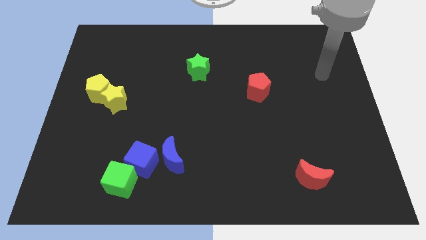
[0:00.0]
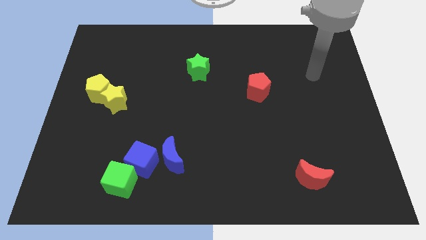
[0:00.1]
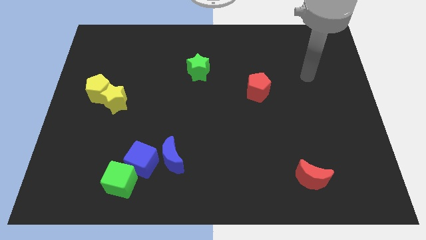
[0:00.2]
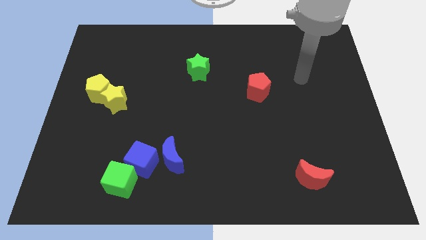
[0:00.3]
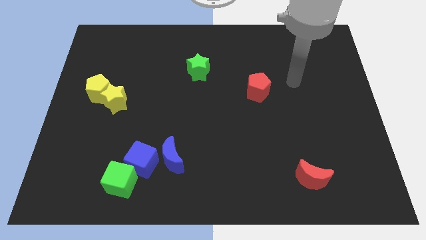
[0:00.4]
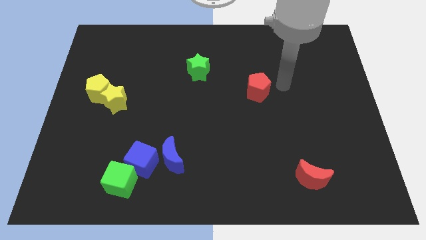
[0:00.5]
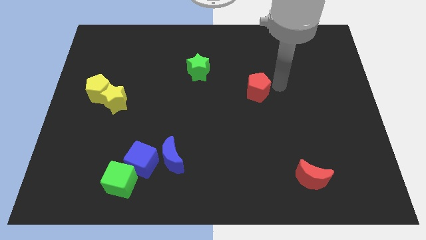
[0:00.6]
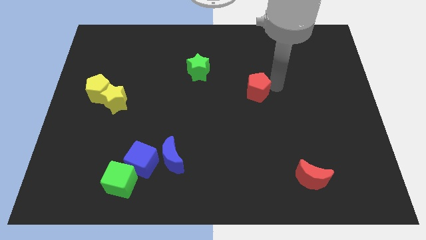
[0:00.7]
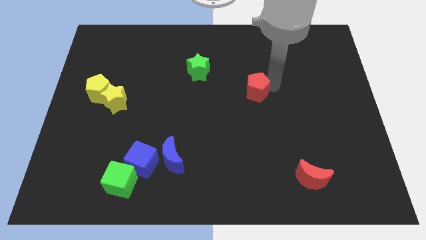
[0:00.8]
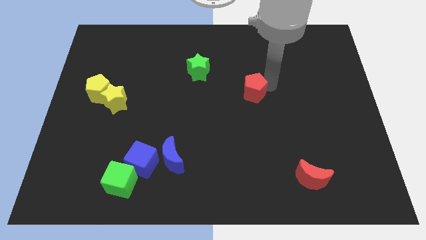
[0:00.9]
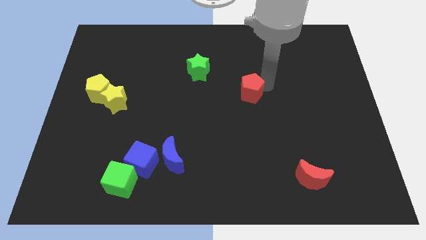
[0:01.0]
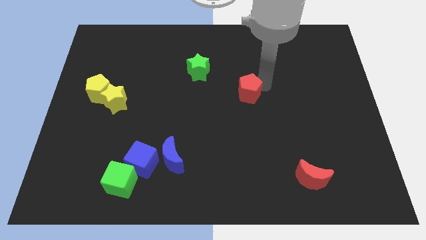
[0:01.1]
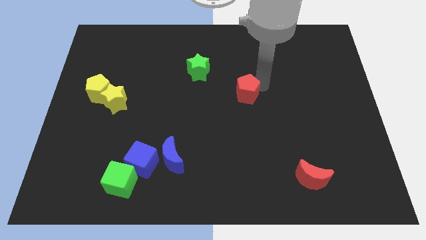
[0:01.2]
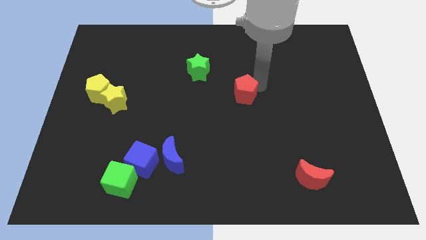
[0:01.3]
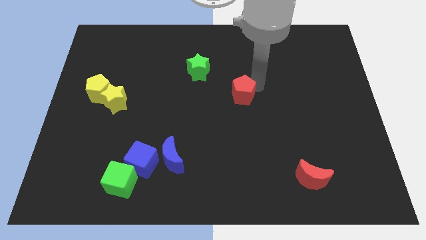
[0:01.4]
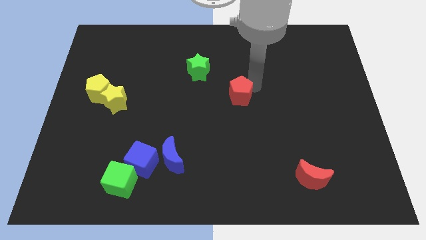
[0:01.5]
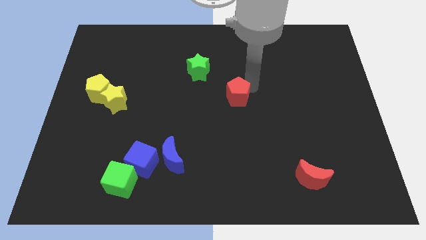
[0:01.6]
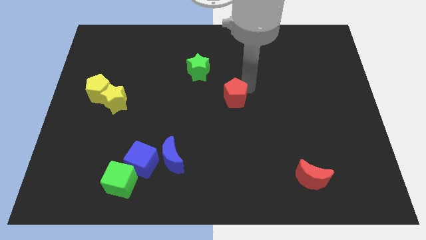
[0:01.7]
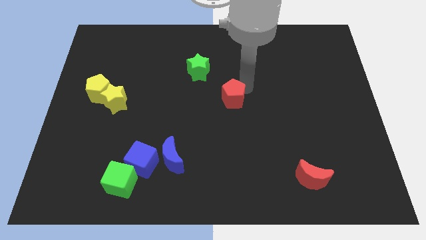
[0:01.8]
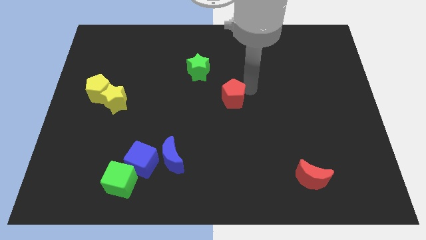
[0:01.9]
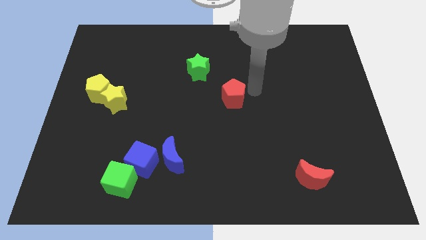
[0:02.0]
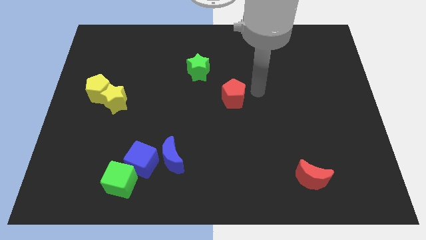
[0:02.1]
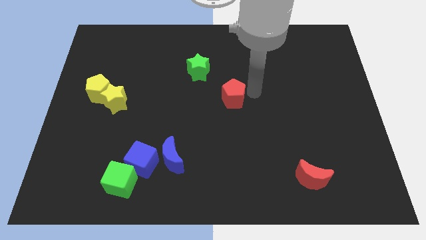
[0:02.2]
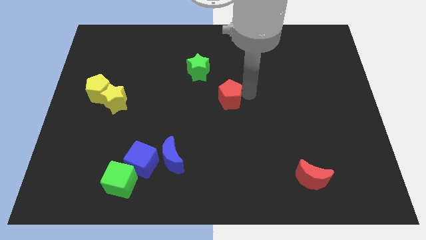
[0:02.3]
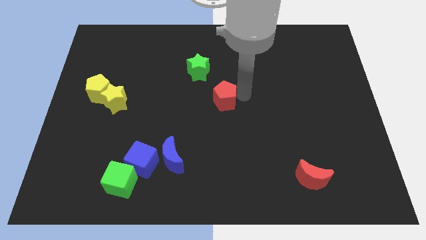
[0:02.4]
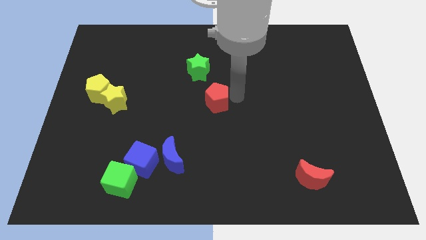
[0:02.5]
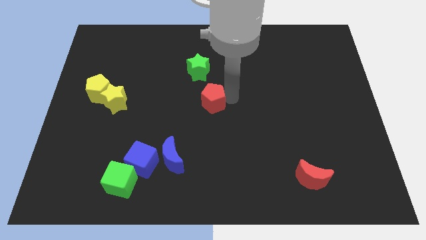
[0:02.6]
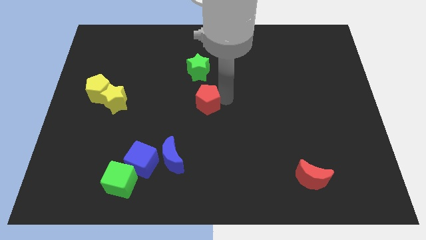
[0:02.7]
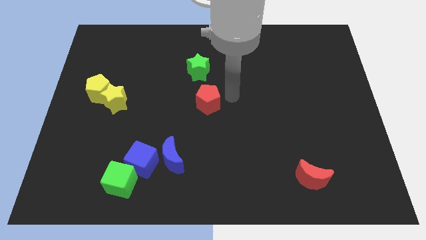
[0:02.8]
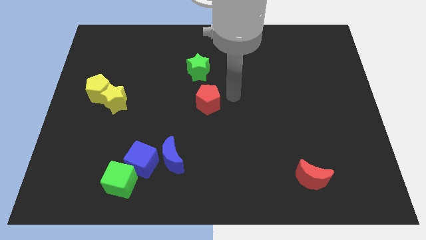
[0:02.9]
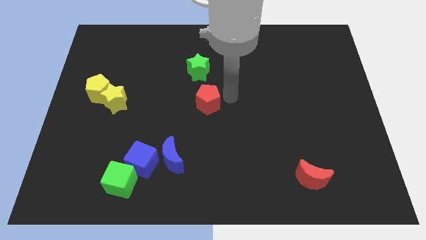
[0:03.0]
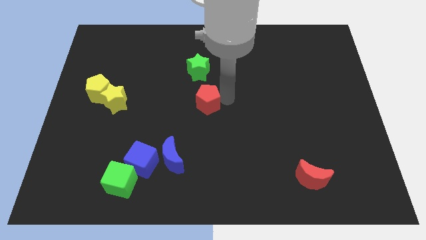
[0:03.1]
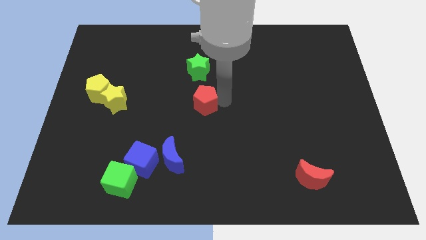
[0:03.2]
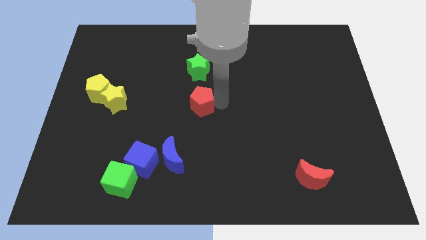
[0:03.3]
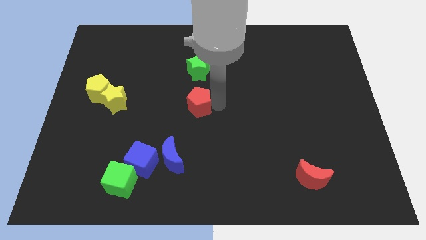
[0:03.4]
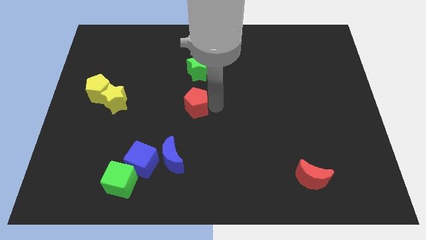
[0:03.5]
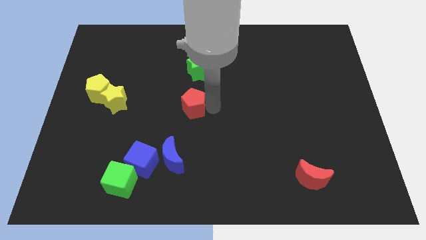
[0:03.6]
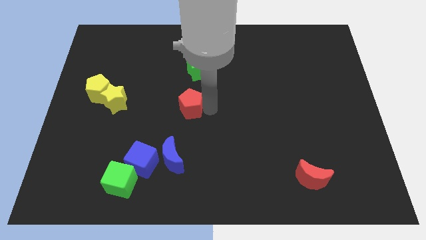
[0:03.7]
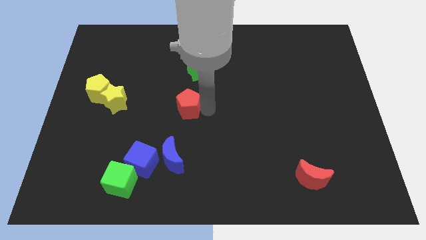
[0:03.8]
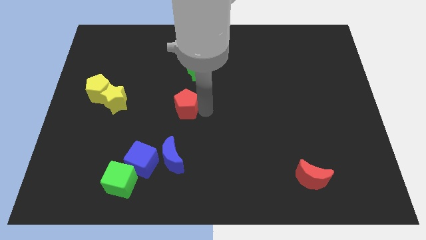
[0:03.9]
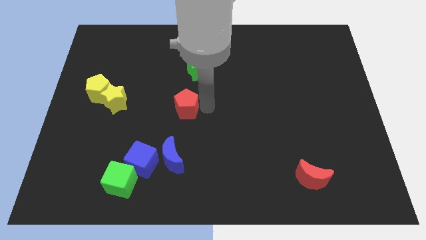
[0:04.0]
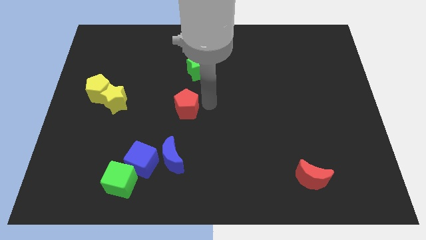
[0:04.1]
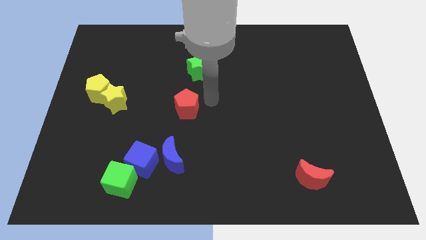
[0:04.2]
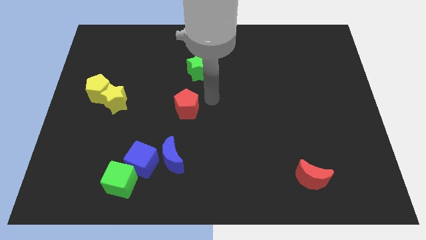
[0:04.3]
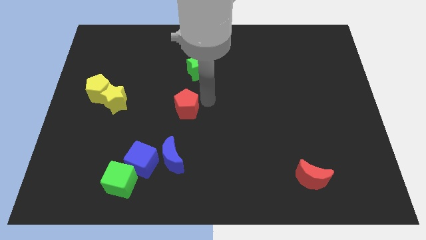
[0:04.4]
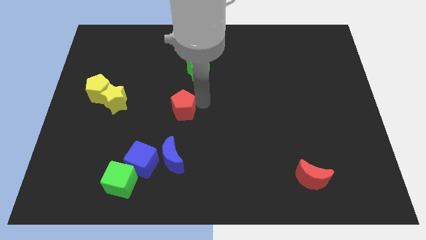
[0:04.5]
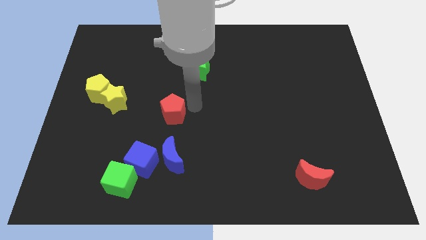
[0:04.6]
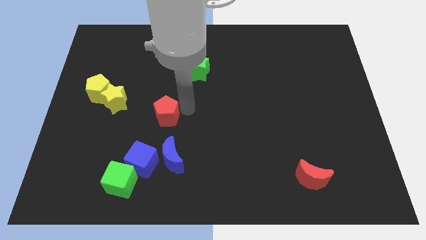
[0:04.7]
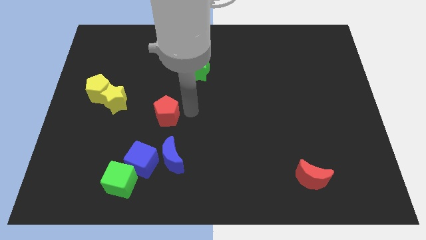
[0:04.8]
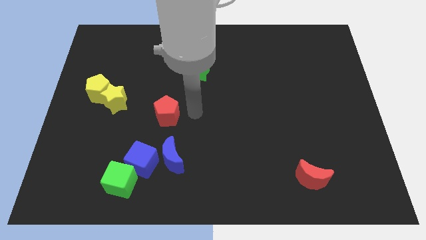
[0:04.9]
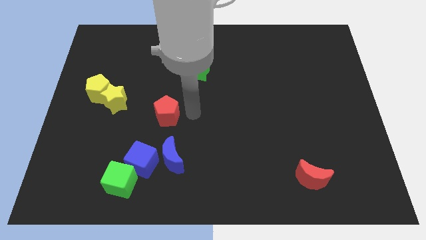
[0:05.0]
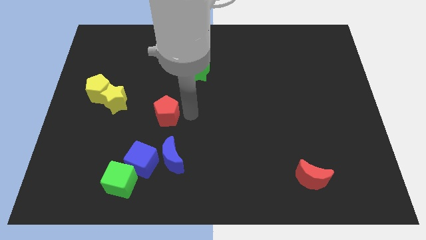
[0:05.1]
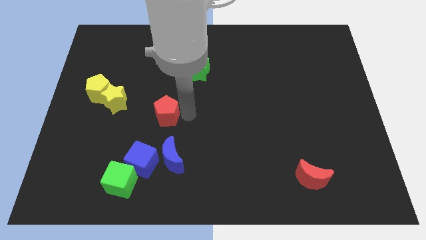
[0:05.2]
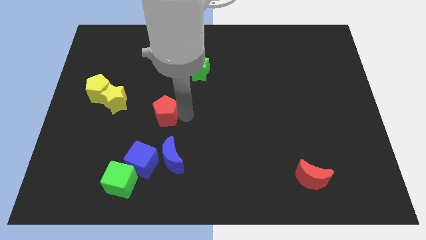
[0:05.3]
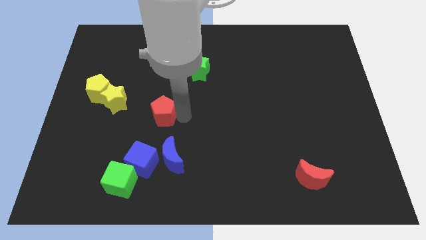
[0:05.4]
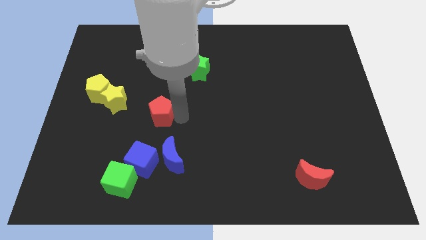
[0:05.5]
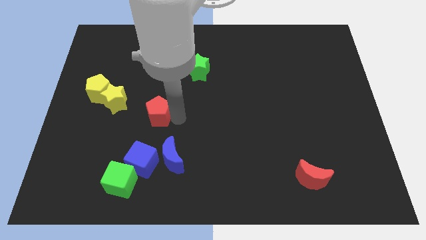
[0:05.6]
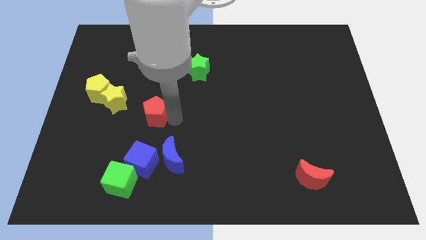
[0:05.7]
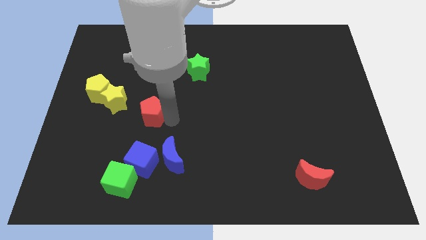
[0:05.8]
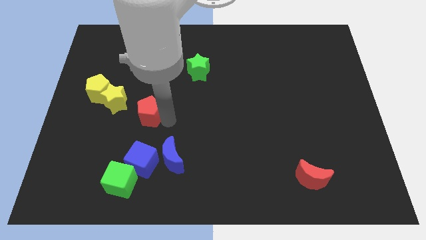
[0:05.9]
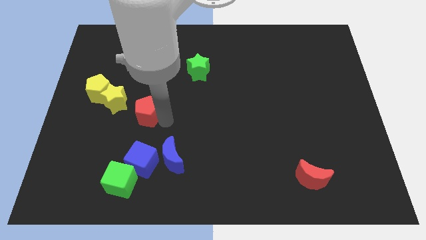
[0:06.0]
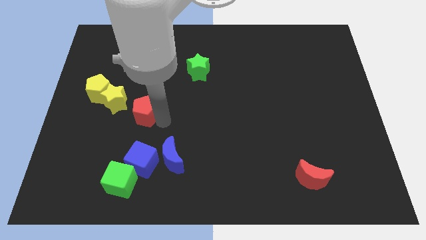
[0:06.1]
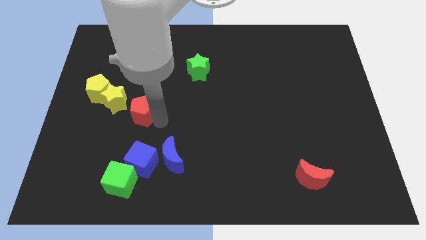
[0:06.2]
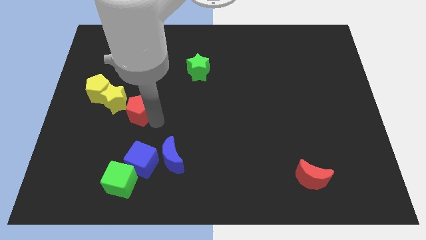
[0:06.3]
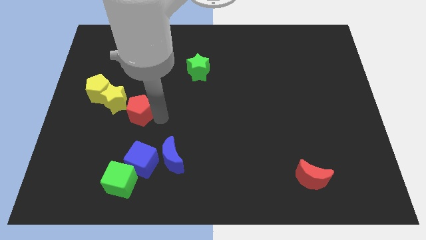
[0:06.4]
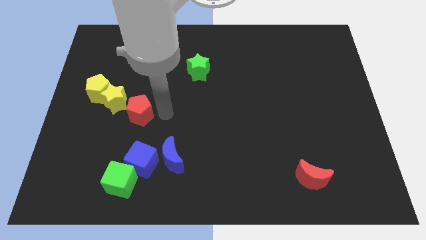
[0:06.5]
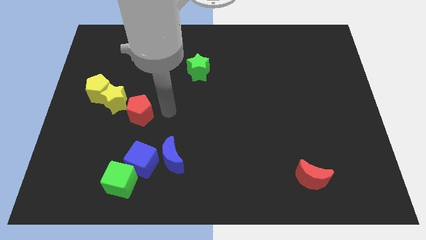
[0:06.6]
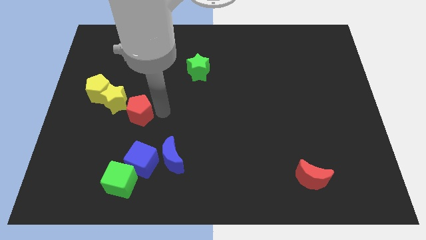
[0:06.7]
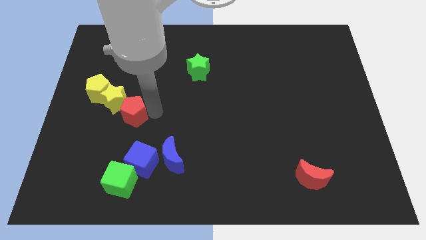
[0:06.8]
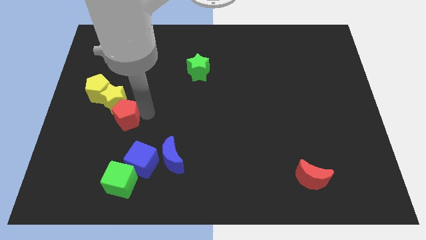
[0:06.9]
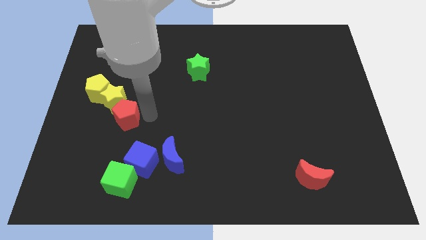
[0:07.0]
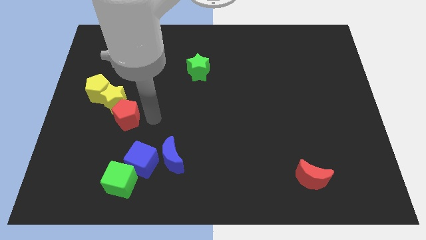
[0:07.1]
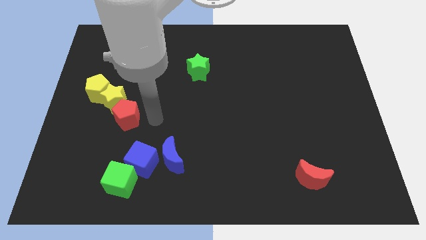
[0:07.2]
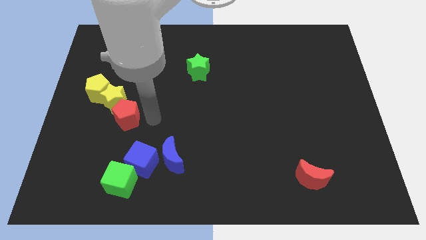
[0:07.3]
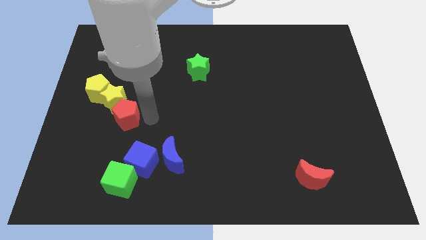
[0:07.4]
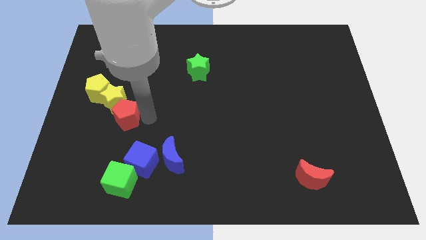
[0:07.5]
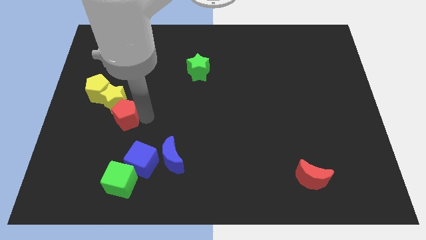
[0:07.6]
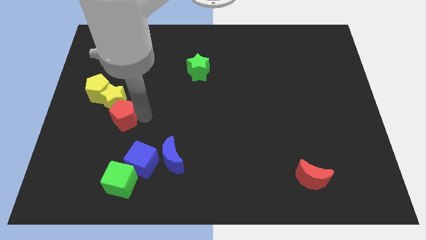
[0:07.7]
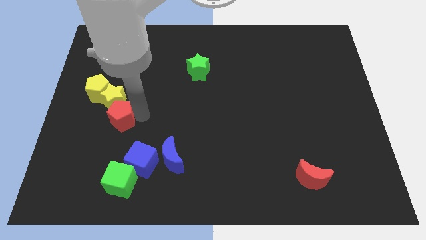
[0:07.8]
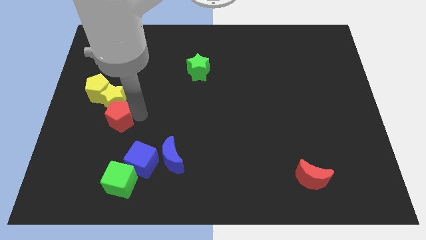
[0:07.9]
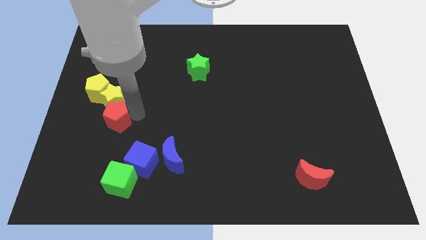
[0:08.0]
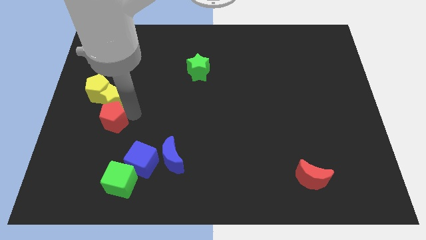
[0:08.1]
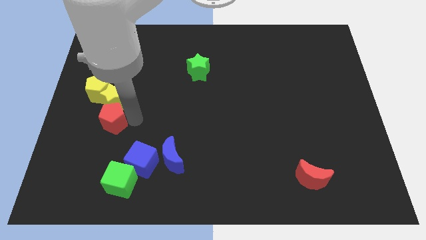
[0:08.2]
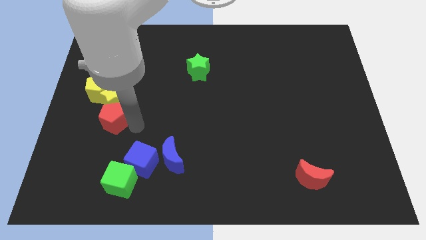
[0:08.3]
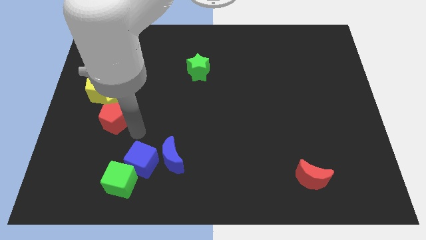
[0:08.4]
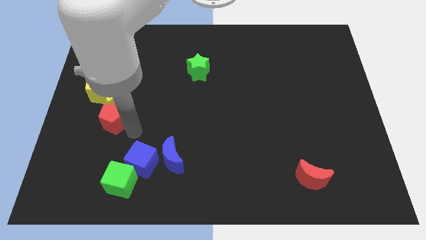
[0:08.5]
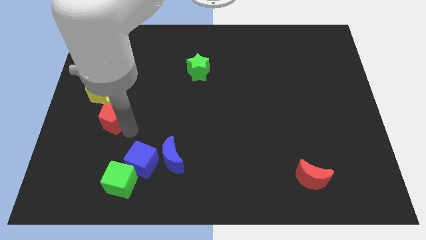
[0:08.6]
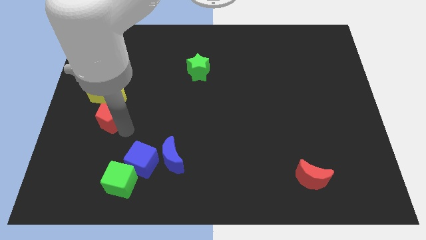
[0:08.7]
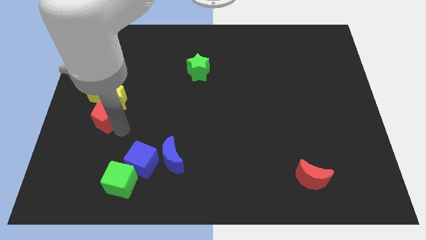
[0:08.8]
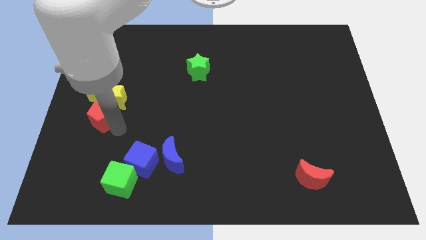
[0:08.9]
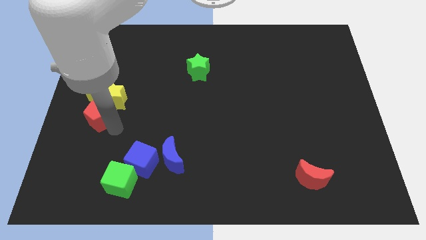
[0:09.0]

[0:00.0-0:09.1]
move the red pentagon to the left side of the board
